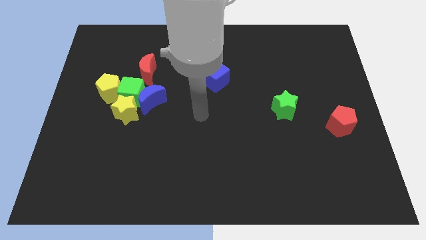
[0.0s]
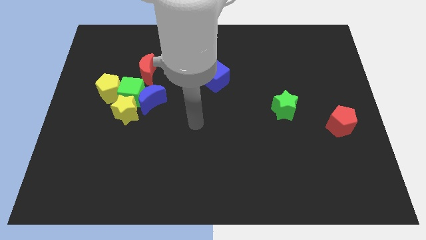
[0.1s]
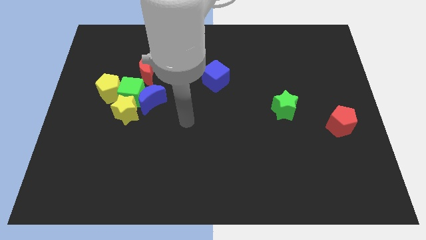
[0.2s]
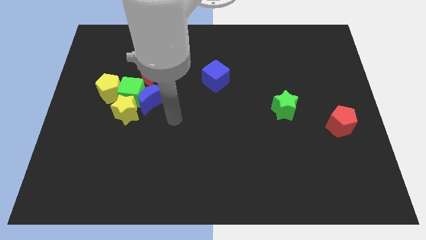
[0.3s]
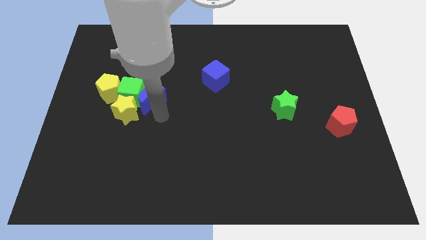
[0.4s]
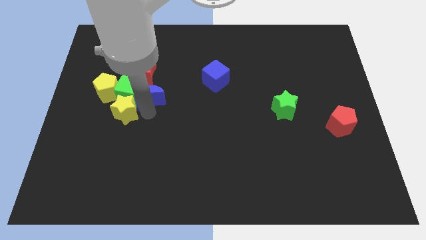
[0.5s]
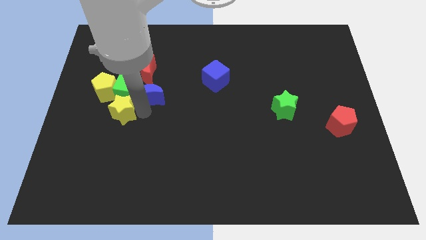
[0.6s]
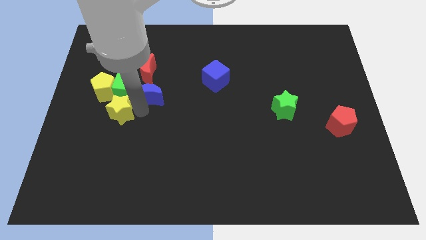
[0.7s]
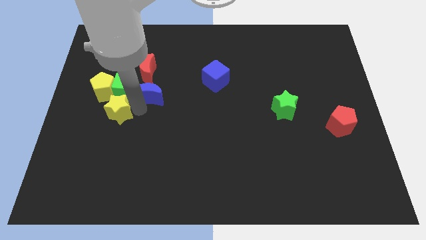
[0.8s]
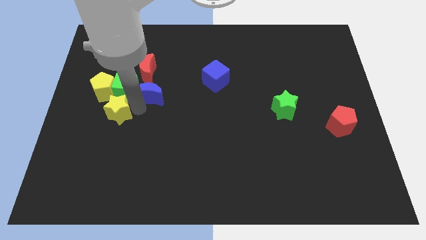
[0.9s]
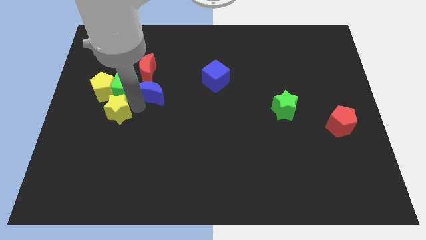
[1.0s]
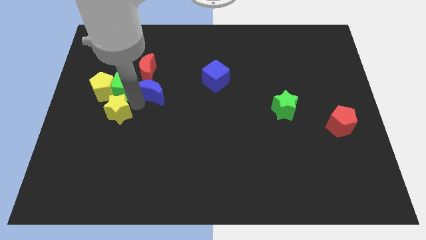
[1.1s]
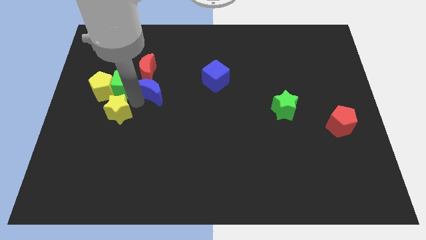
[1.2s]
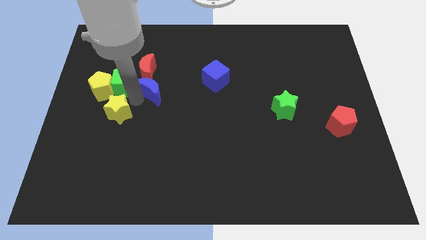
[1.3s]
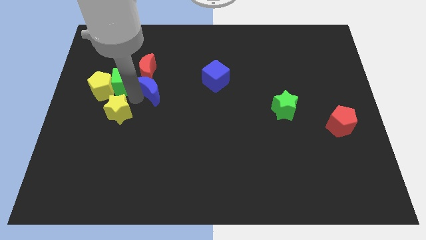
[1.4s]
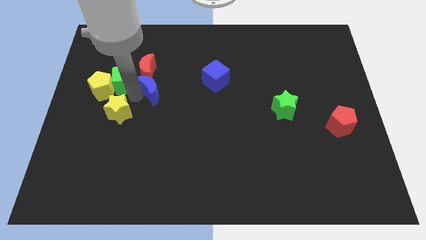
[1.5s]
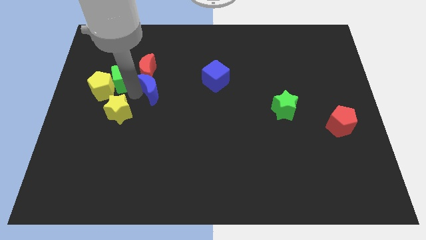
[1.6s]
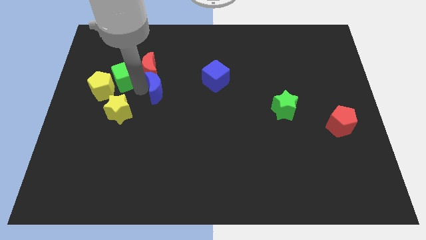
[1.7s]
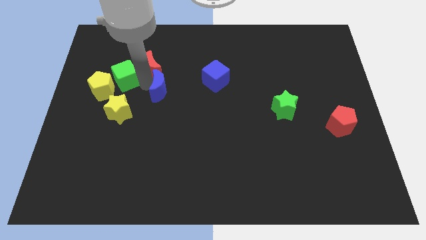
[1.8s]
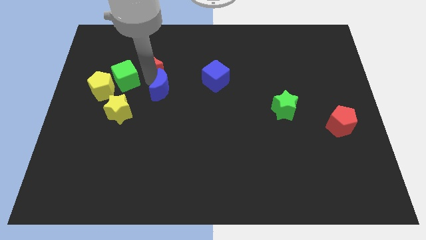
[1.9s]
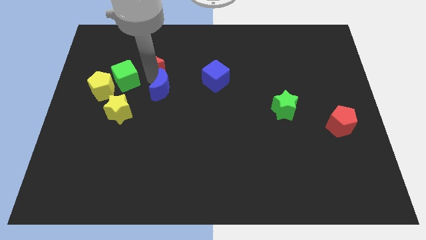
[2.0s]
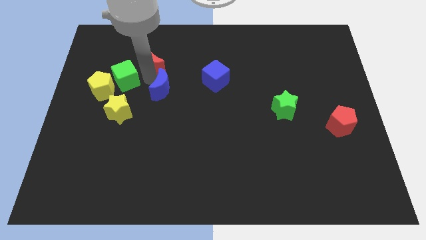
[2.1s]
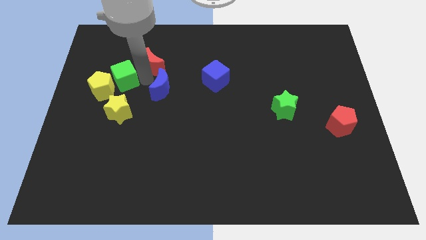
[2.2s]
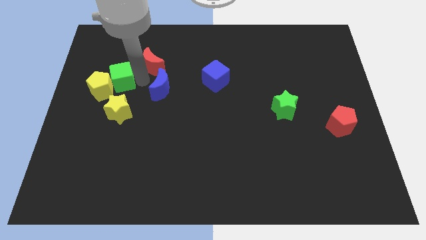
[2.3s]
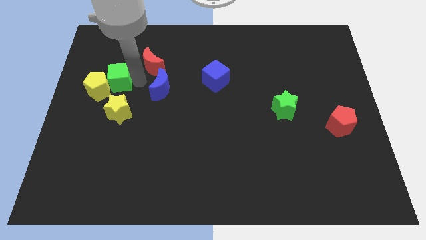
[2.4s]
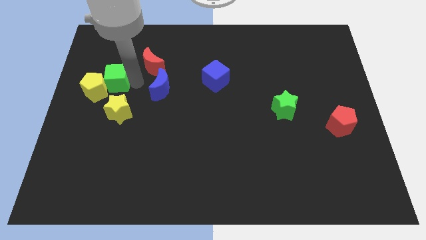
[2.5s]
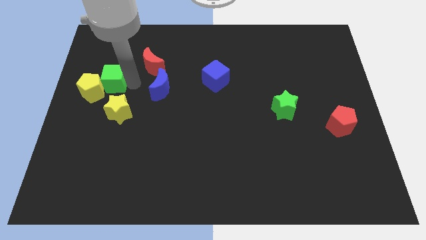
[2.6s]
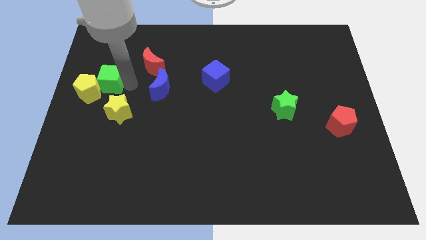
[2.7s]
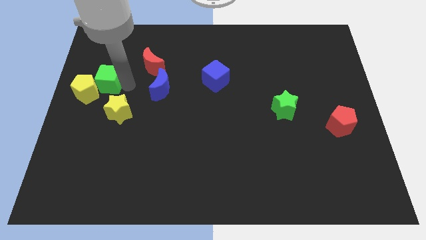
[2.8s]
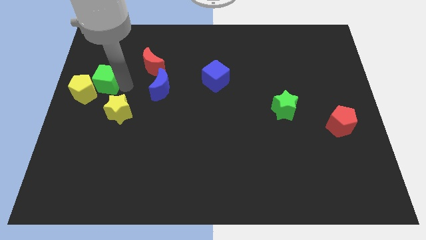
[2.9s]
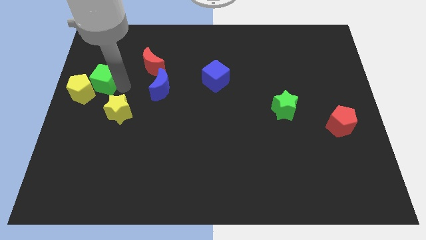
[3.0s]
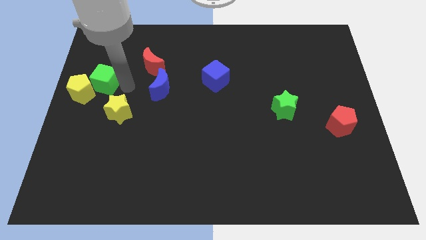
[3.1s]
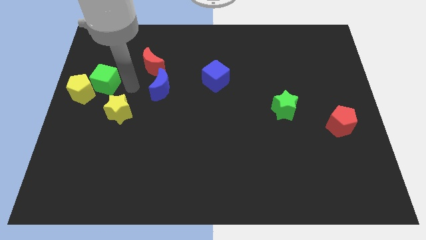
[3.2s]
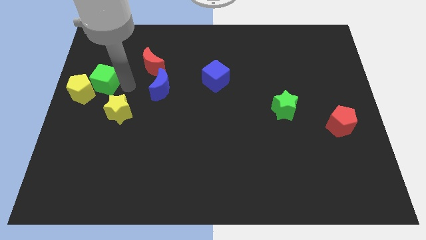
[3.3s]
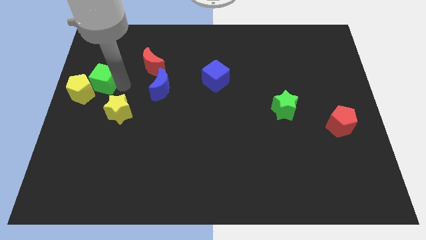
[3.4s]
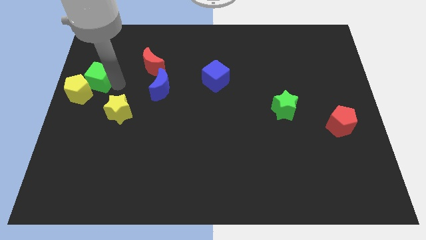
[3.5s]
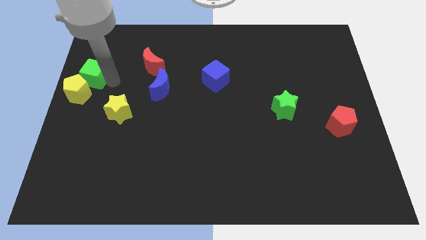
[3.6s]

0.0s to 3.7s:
move the green cube away from the clump

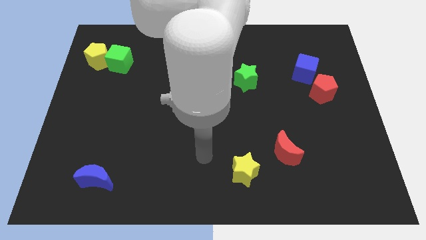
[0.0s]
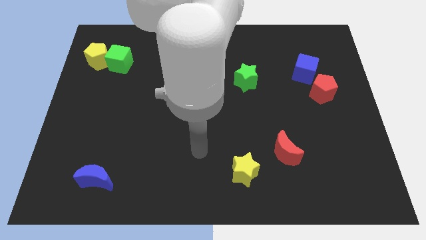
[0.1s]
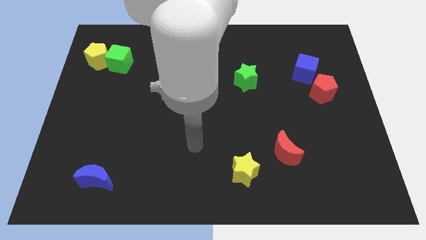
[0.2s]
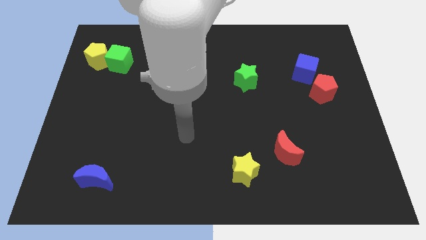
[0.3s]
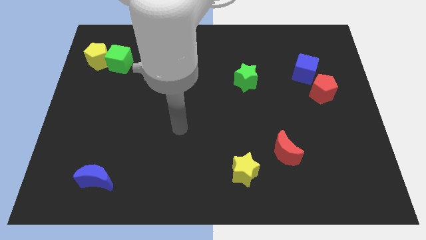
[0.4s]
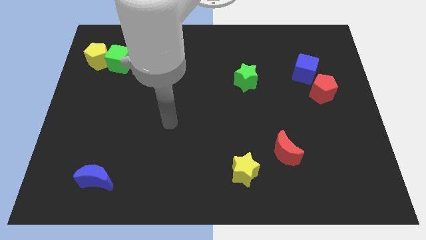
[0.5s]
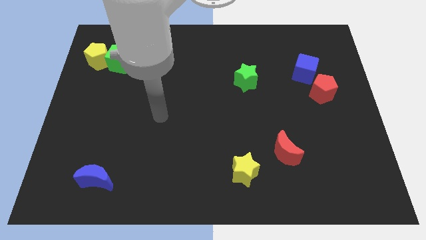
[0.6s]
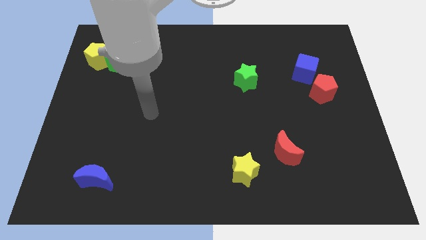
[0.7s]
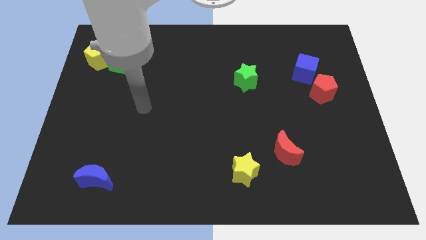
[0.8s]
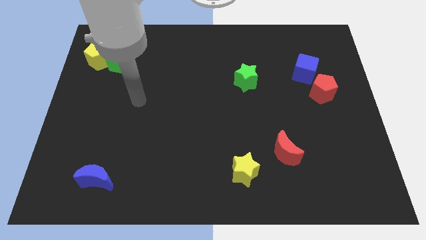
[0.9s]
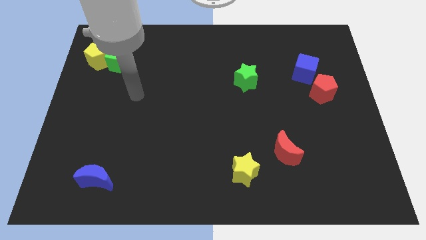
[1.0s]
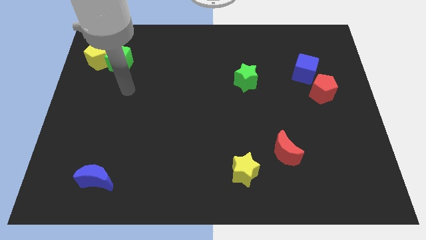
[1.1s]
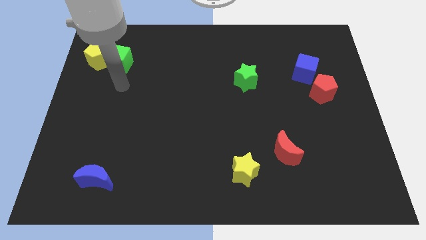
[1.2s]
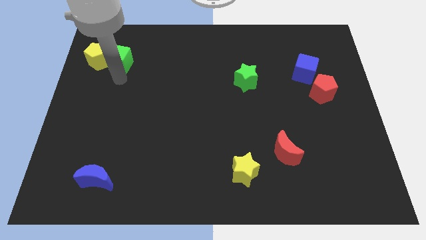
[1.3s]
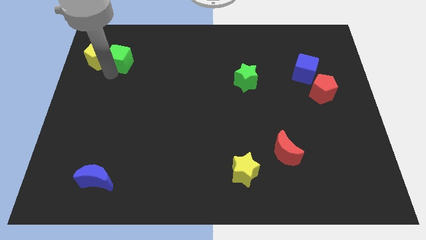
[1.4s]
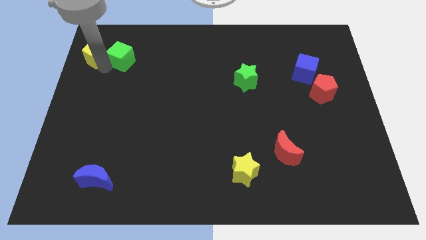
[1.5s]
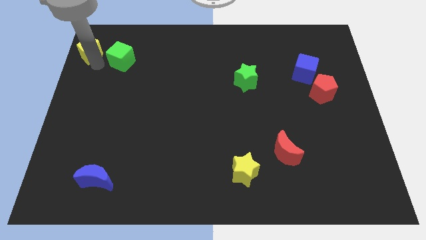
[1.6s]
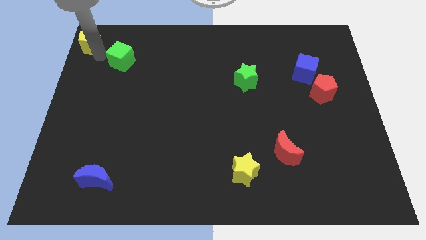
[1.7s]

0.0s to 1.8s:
separate the green cube from the yellow pentagon

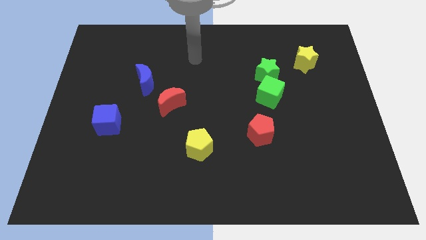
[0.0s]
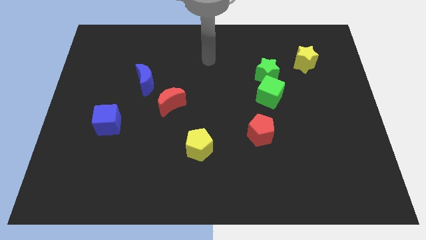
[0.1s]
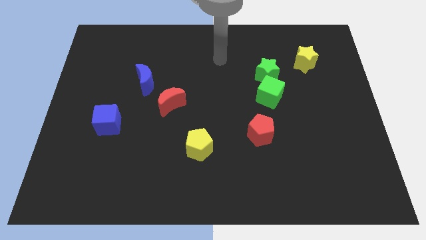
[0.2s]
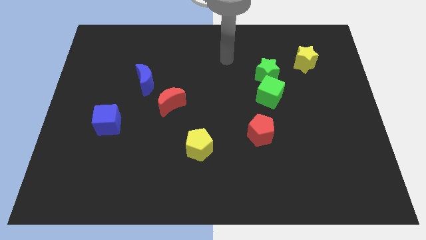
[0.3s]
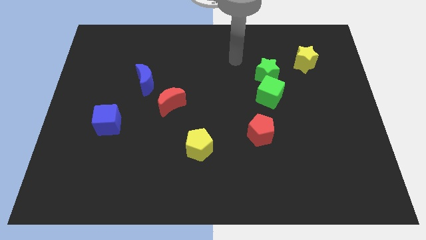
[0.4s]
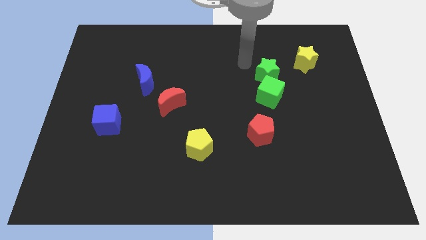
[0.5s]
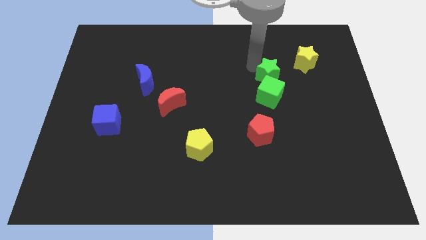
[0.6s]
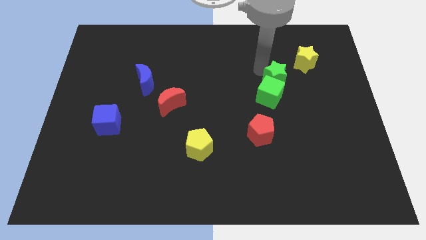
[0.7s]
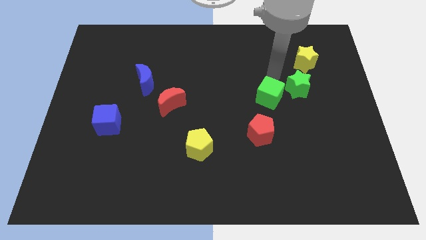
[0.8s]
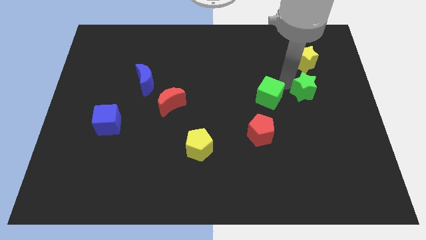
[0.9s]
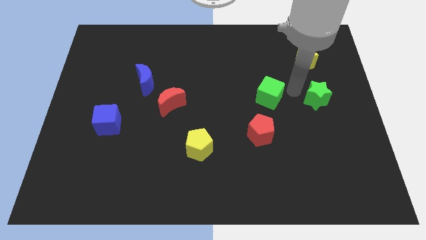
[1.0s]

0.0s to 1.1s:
separate the green cube from the green star

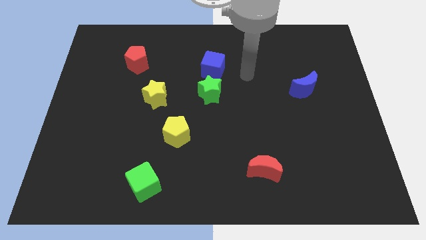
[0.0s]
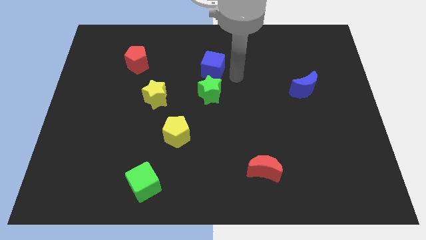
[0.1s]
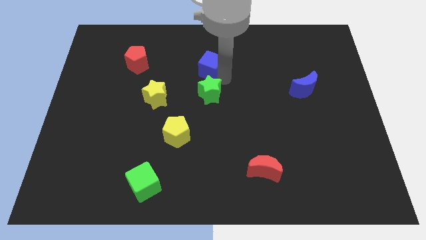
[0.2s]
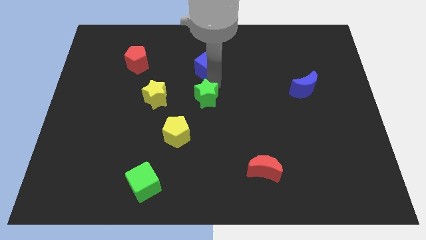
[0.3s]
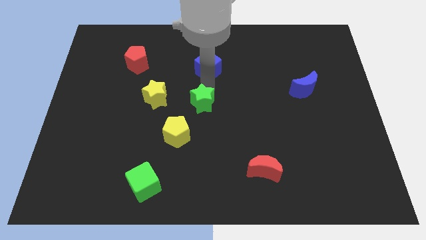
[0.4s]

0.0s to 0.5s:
separate the blue cube from the green star

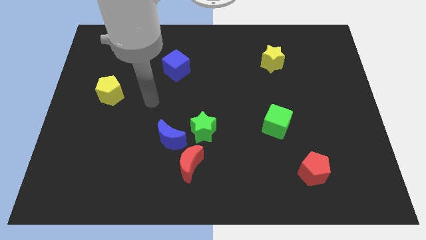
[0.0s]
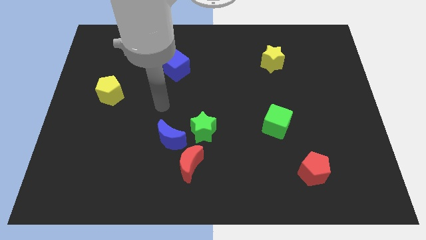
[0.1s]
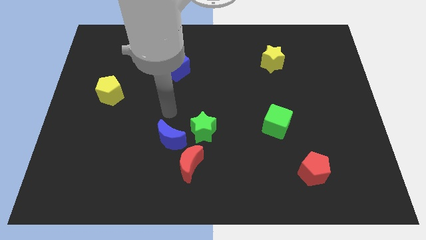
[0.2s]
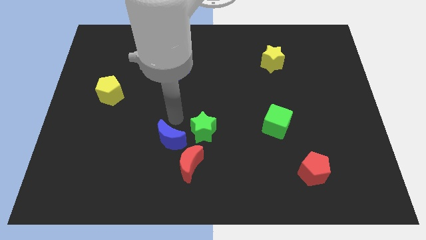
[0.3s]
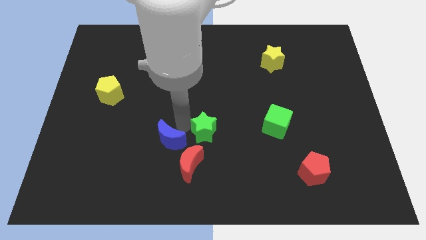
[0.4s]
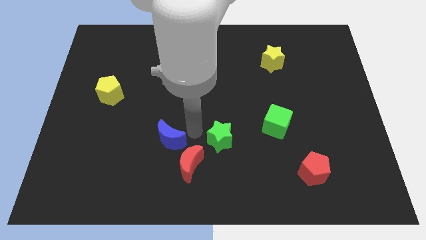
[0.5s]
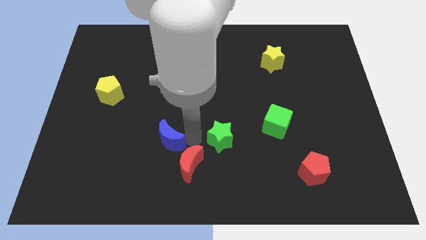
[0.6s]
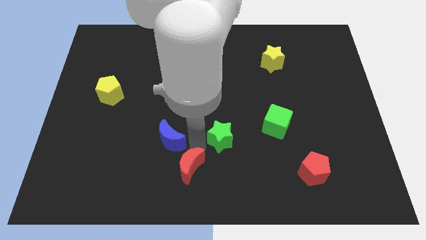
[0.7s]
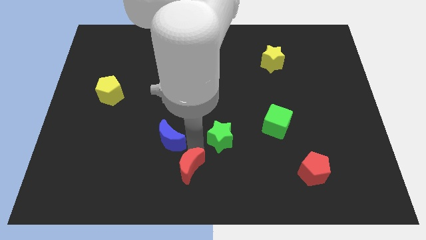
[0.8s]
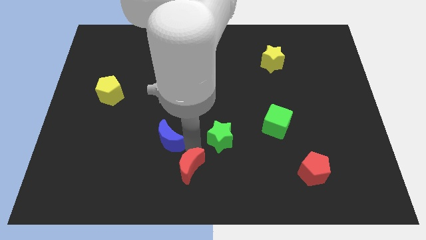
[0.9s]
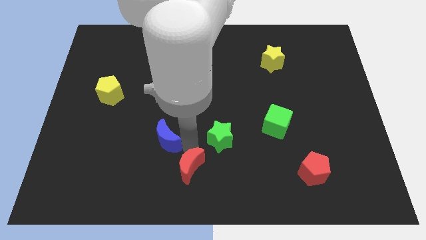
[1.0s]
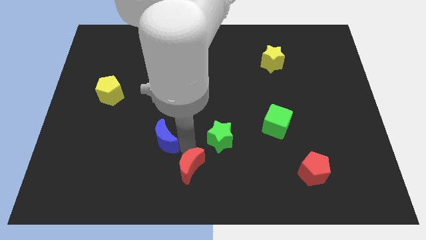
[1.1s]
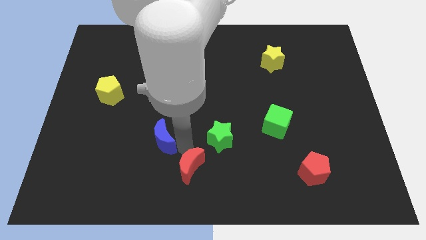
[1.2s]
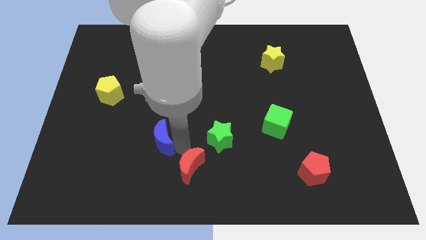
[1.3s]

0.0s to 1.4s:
pull the blue moon apart from the green star and red moon

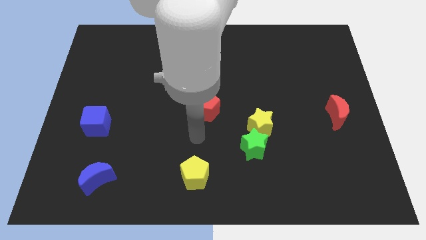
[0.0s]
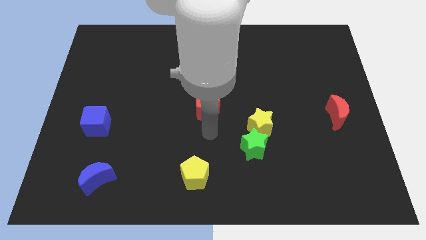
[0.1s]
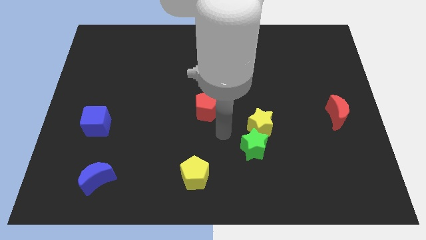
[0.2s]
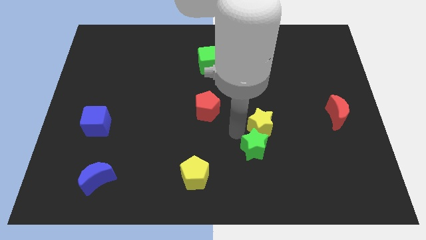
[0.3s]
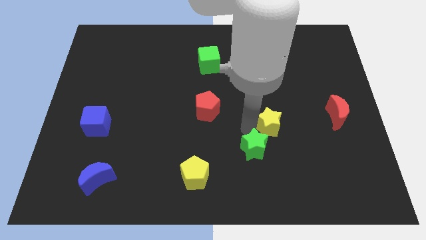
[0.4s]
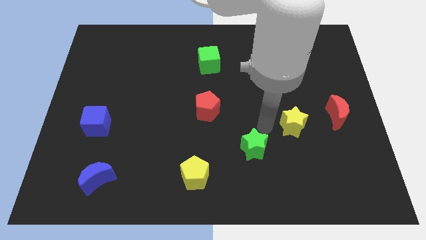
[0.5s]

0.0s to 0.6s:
pull the green star apart from the yellow star

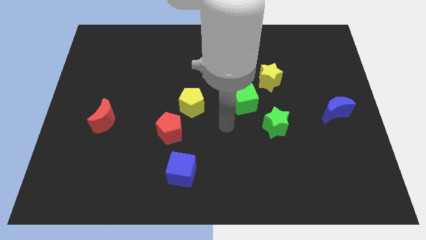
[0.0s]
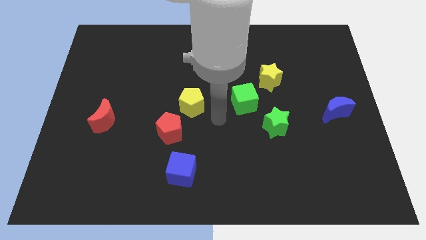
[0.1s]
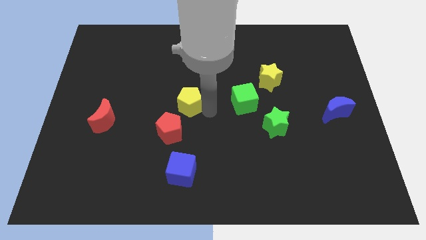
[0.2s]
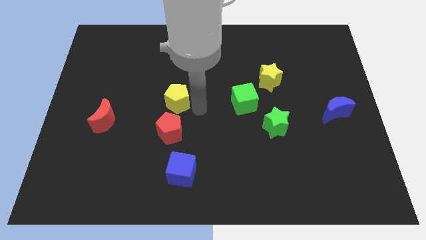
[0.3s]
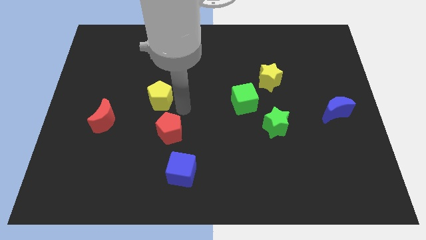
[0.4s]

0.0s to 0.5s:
move the red pentagon away from the yellow pentagon
